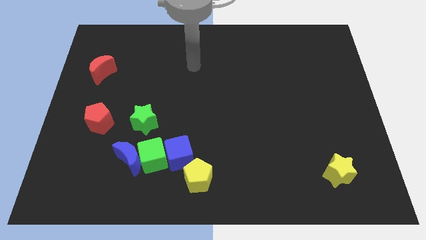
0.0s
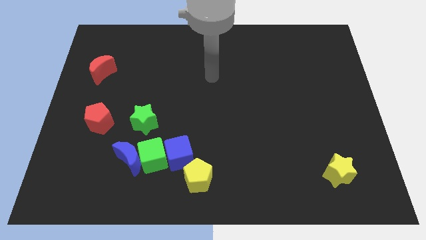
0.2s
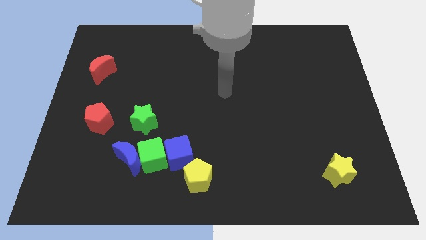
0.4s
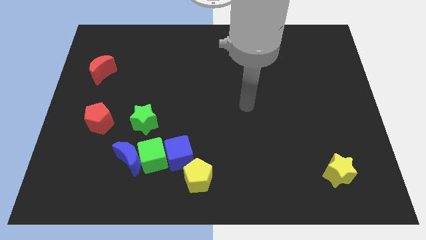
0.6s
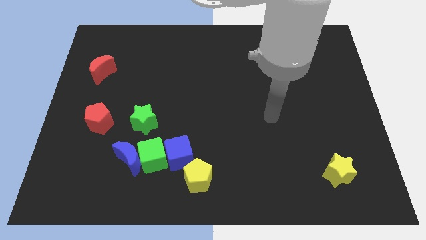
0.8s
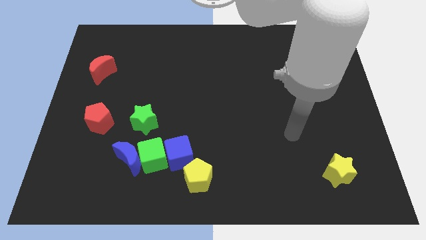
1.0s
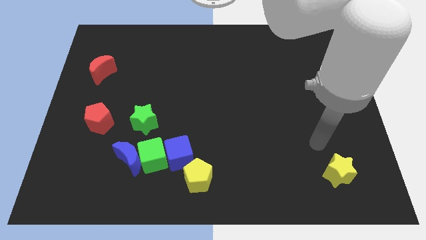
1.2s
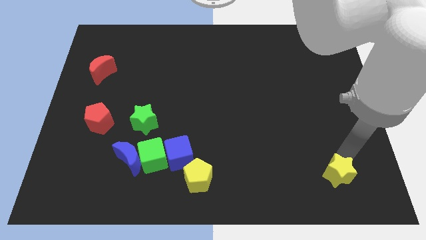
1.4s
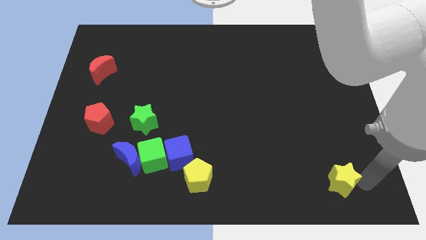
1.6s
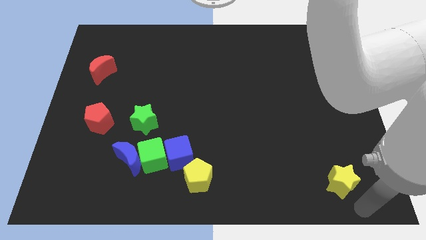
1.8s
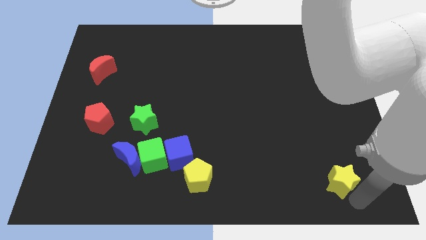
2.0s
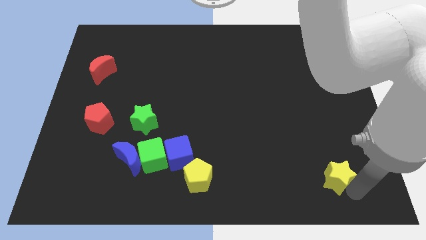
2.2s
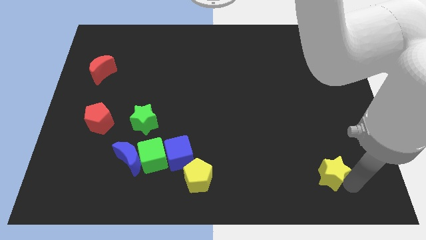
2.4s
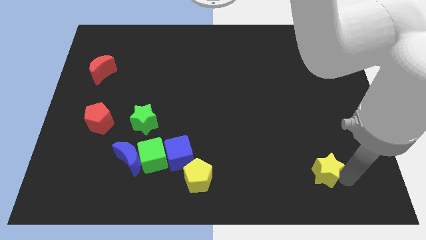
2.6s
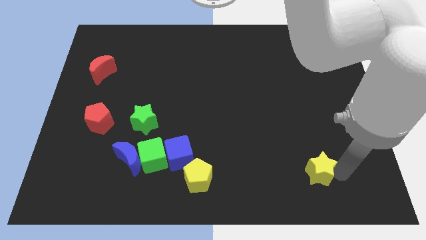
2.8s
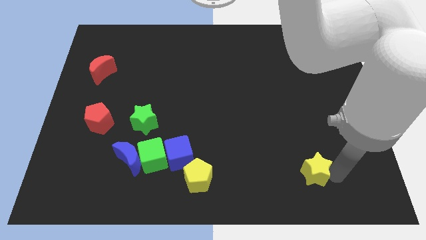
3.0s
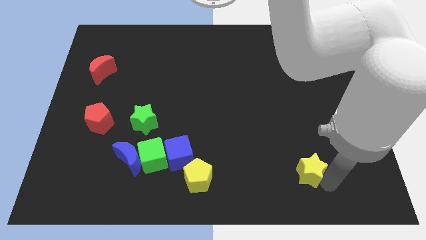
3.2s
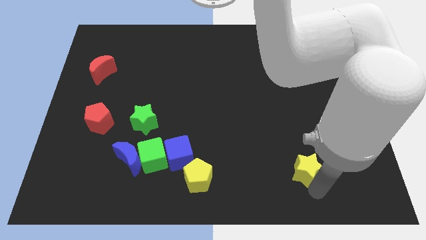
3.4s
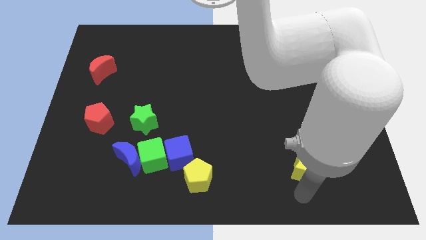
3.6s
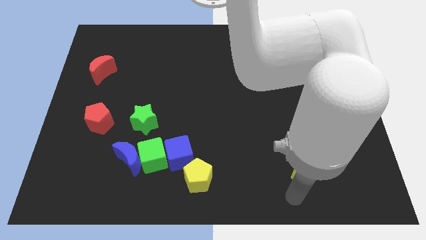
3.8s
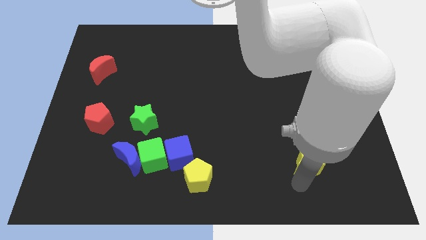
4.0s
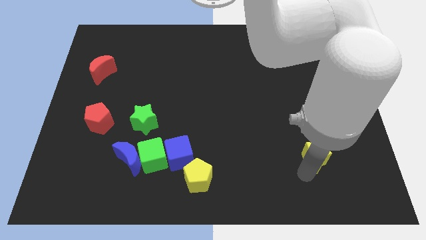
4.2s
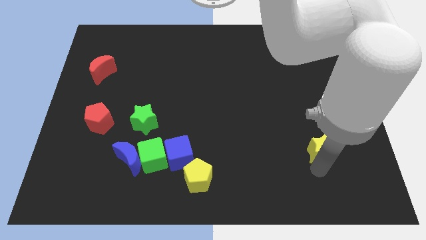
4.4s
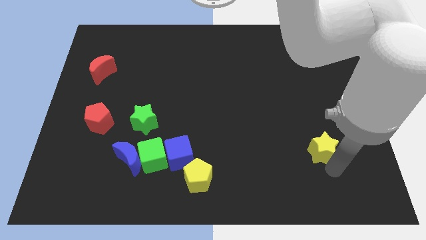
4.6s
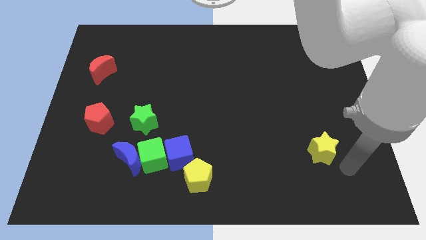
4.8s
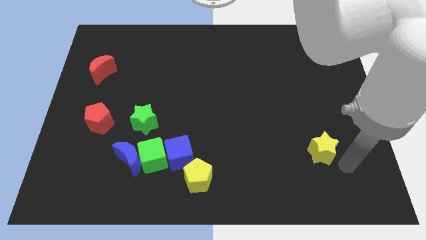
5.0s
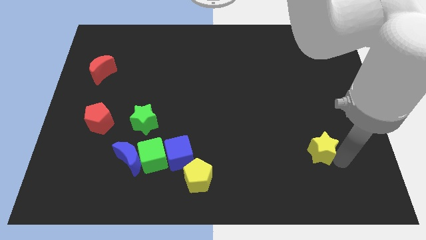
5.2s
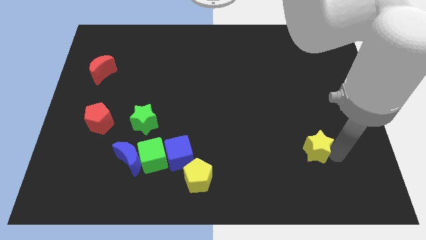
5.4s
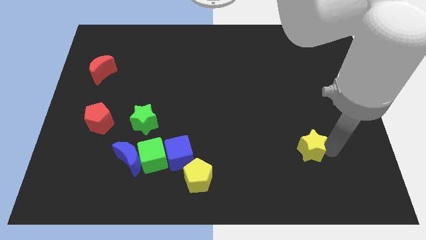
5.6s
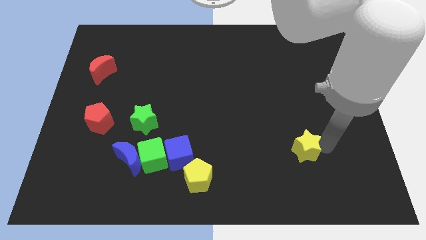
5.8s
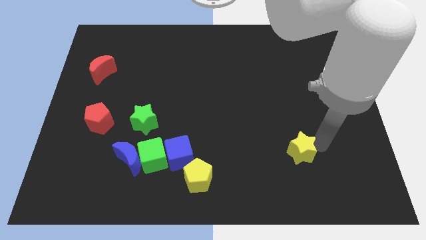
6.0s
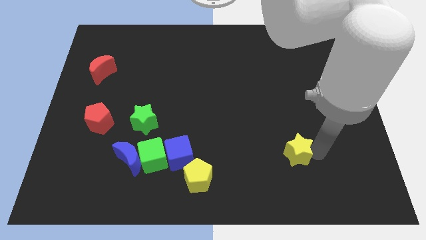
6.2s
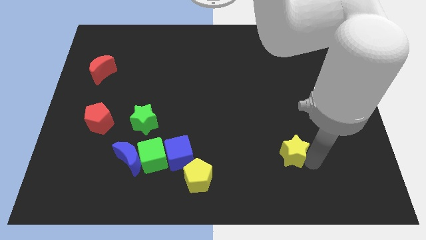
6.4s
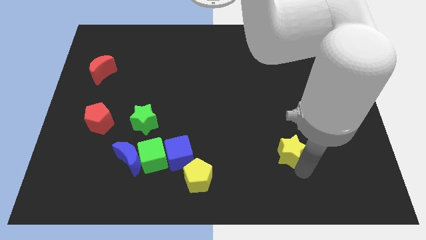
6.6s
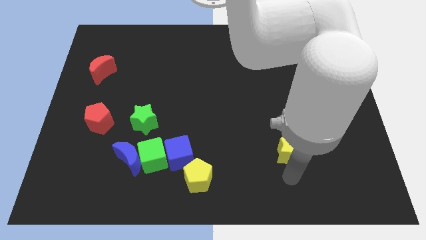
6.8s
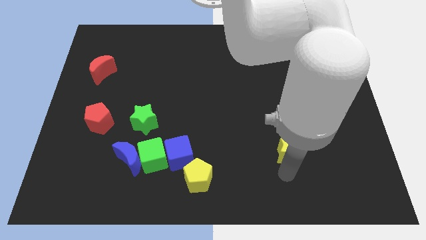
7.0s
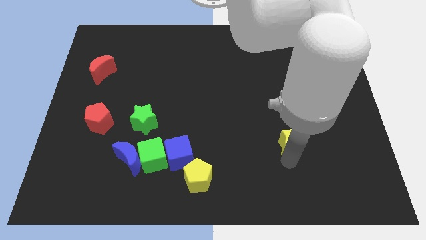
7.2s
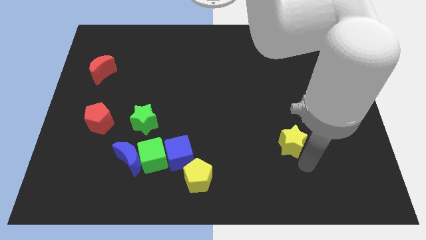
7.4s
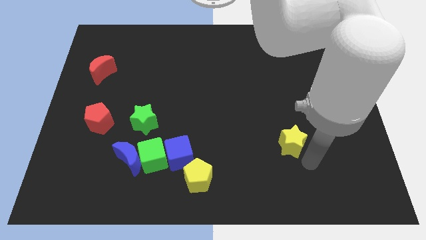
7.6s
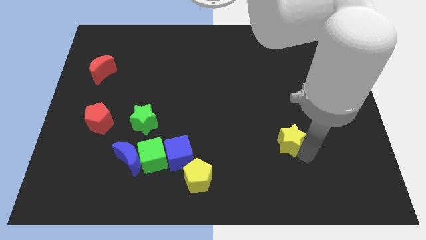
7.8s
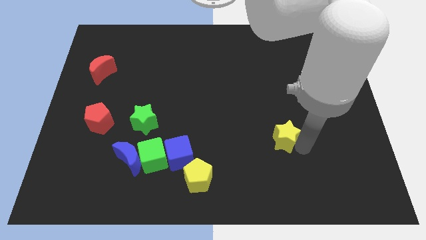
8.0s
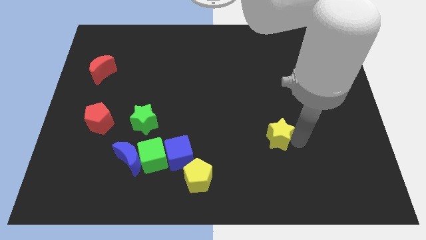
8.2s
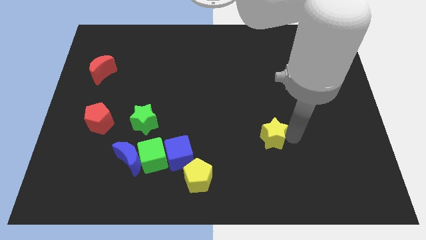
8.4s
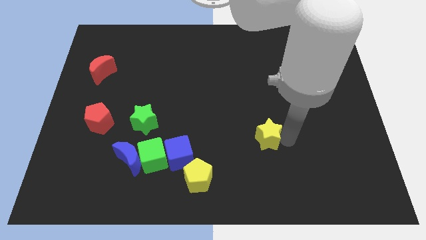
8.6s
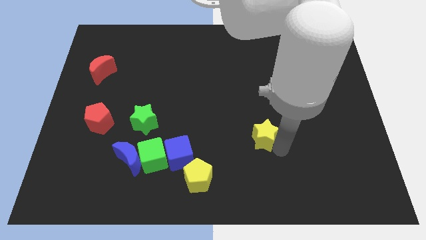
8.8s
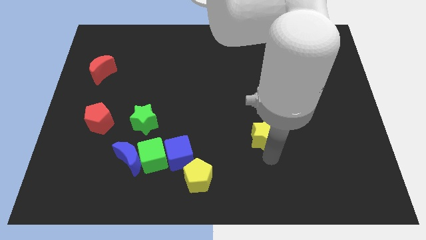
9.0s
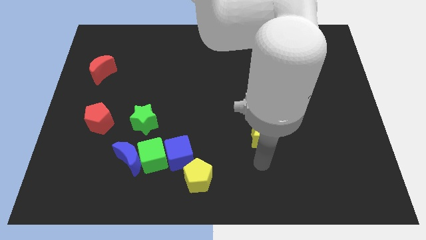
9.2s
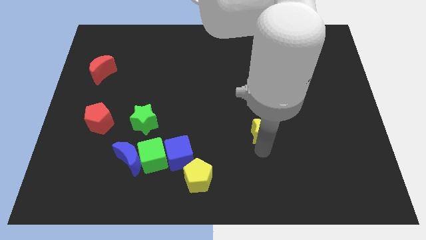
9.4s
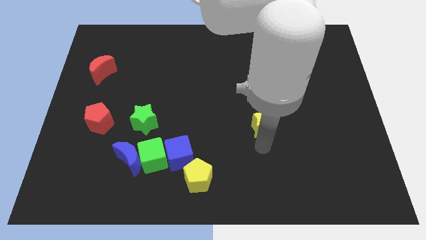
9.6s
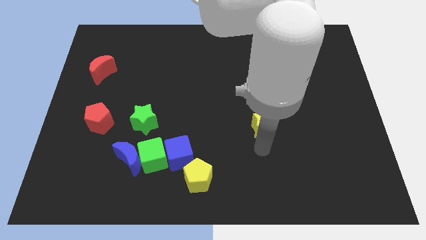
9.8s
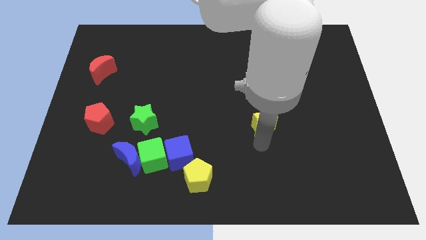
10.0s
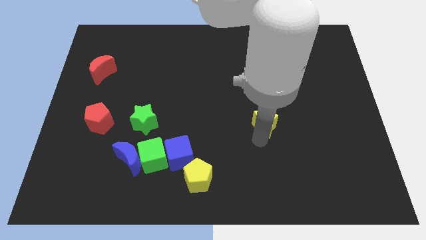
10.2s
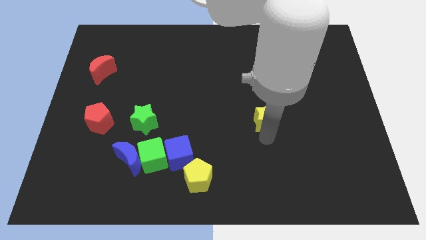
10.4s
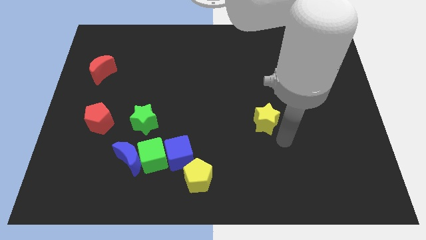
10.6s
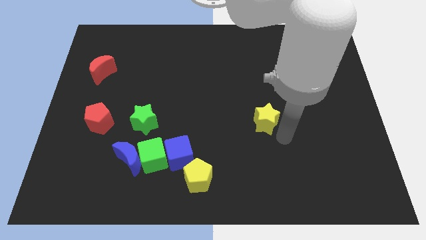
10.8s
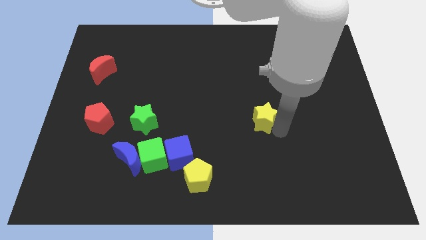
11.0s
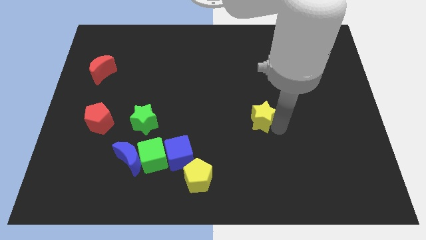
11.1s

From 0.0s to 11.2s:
push the yellow star up and then left

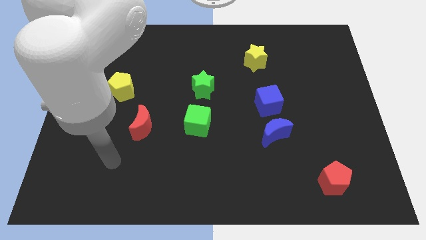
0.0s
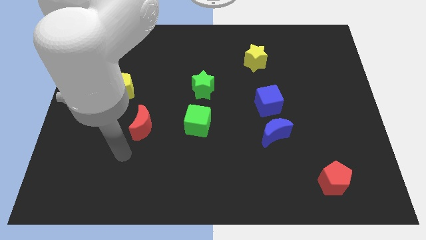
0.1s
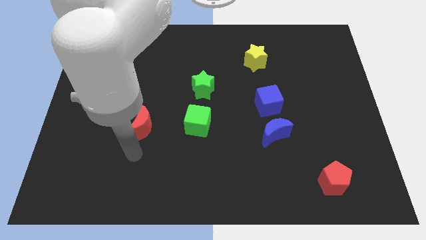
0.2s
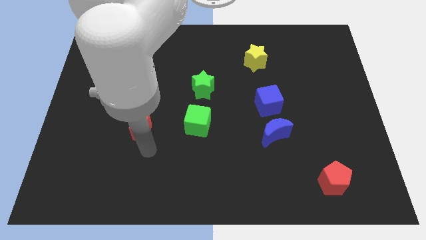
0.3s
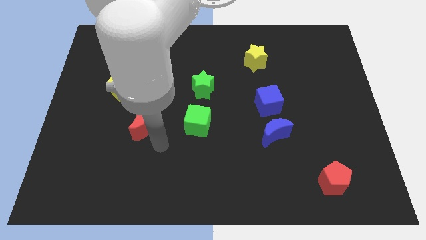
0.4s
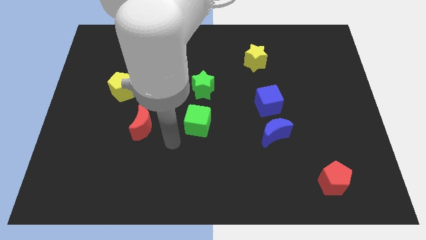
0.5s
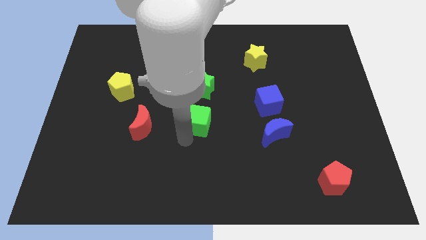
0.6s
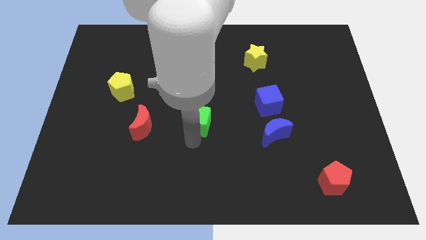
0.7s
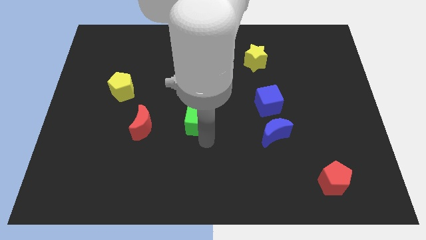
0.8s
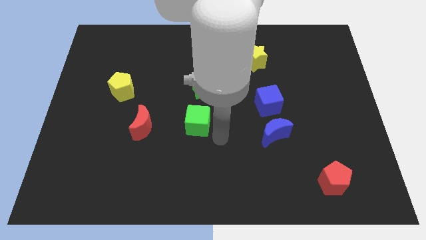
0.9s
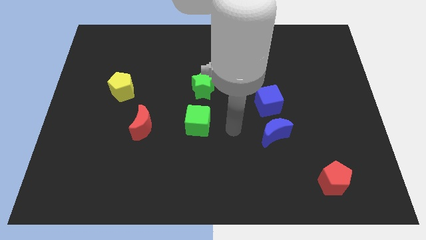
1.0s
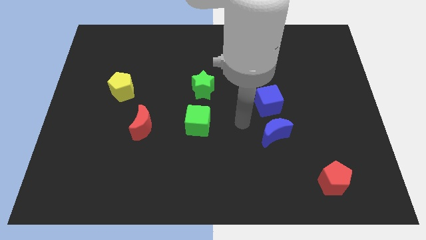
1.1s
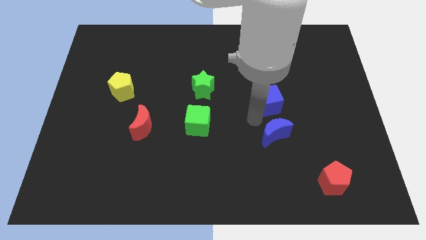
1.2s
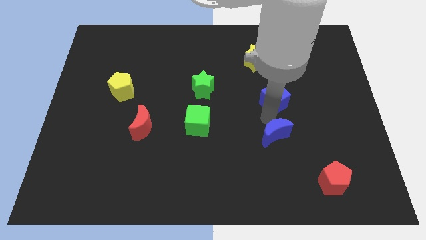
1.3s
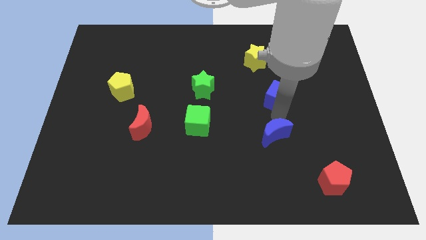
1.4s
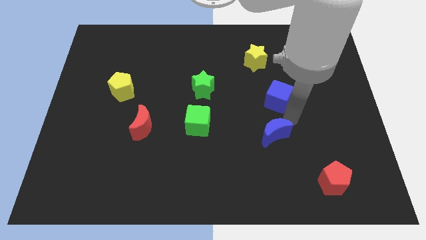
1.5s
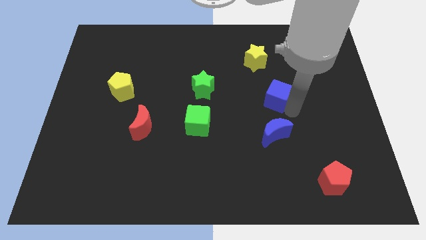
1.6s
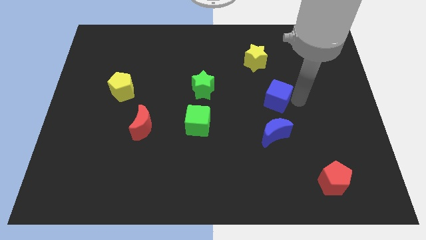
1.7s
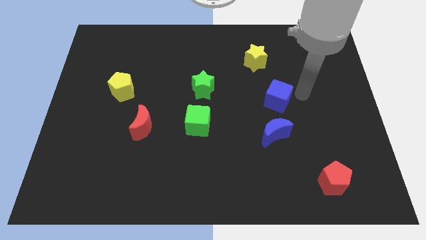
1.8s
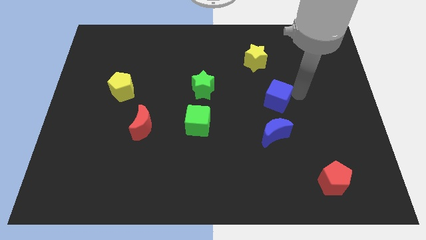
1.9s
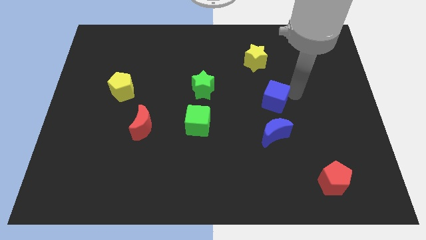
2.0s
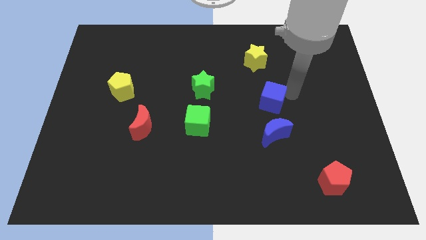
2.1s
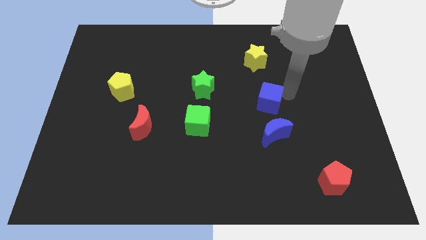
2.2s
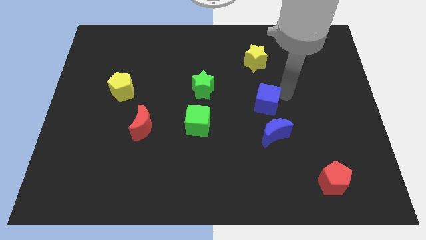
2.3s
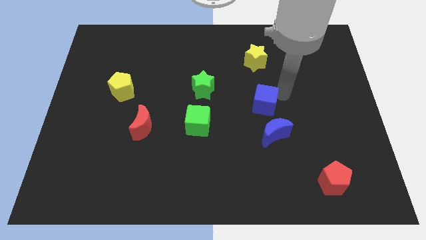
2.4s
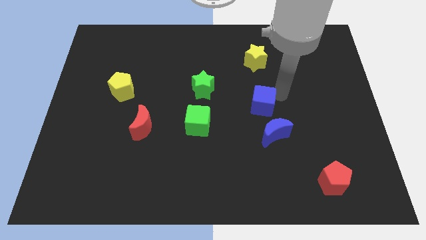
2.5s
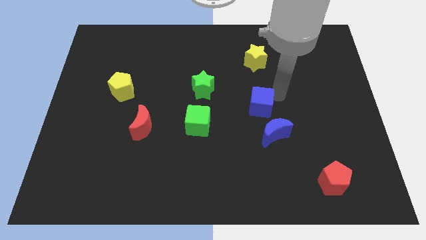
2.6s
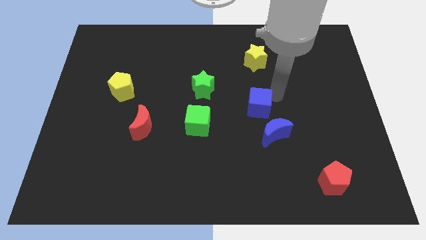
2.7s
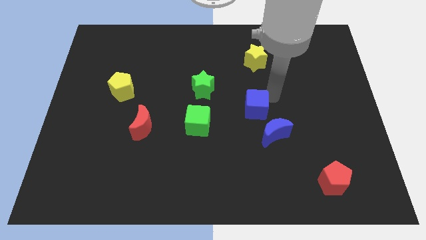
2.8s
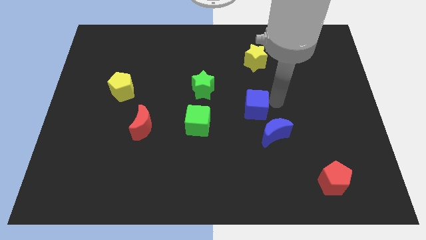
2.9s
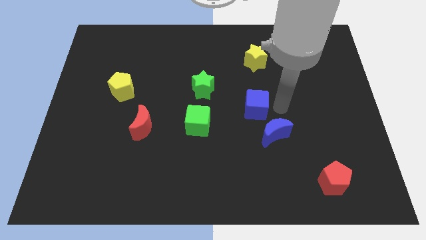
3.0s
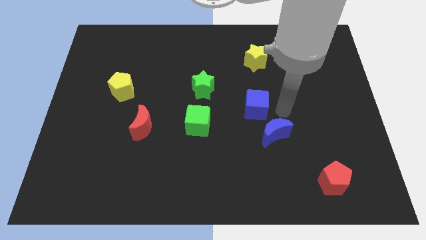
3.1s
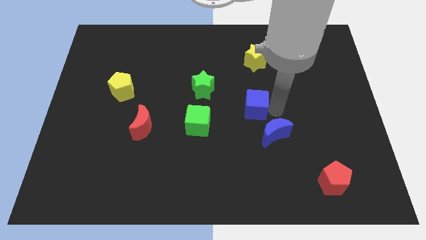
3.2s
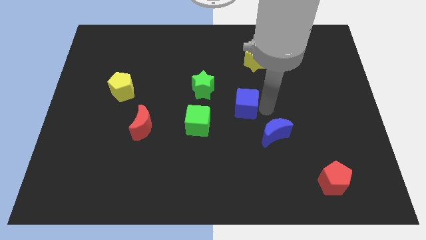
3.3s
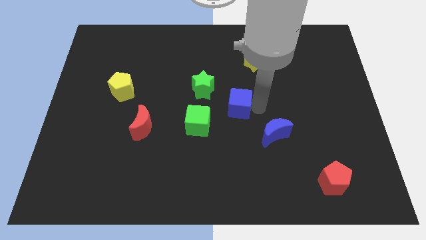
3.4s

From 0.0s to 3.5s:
slide the blue cube left slightly
